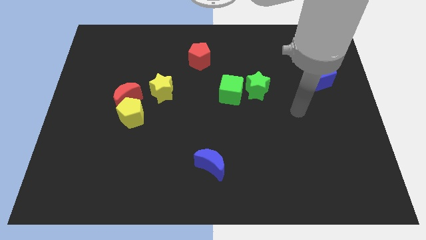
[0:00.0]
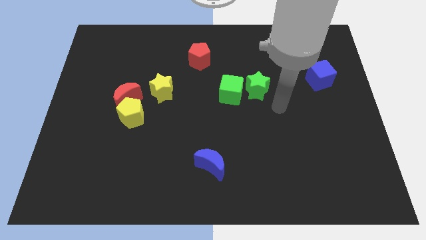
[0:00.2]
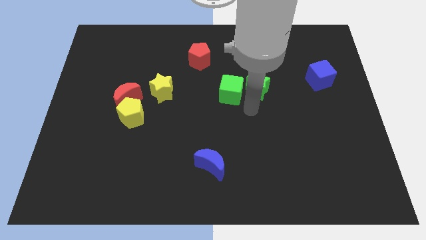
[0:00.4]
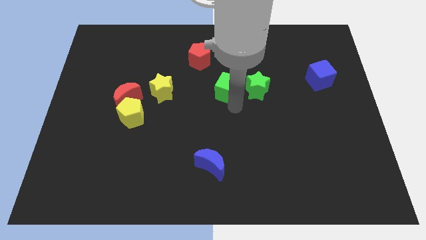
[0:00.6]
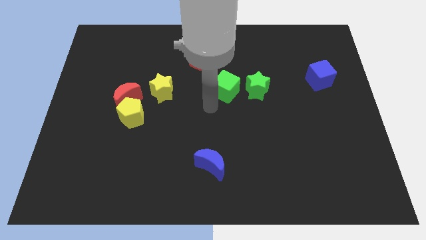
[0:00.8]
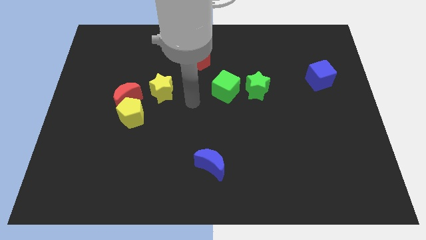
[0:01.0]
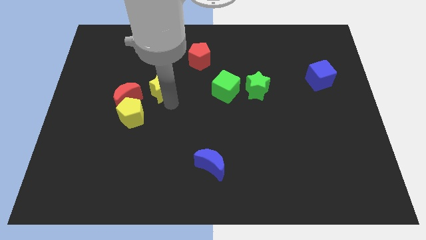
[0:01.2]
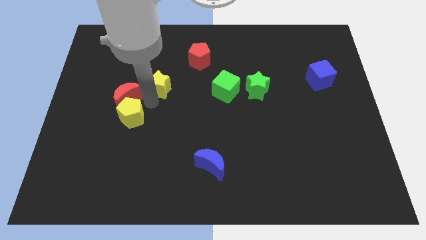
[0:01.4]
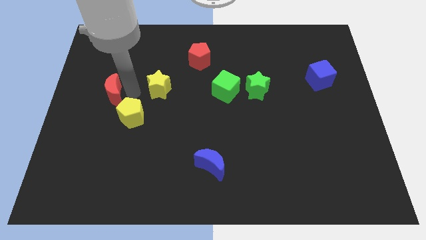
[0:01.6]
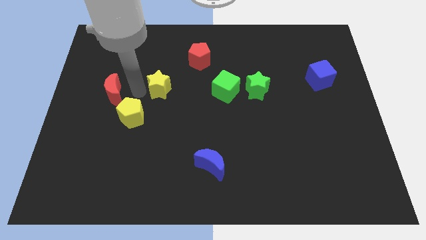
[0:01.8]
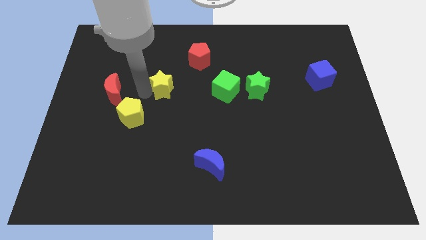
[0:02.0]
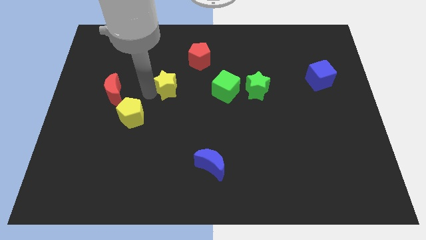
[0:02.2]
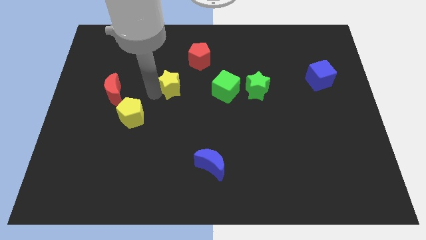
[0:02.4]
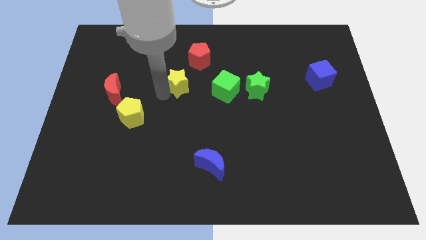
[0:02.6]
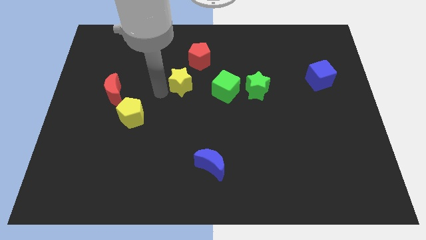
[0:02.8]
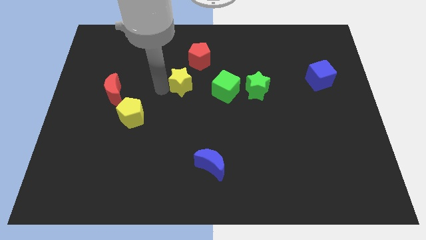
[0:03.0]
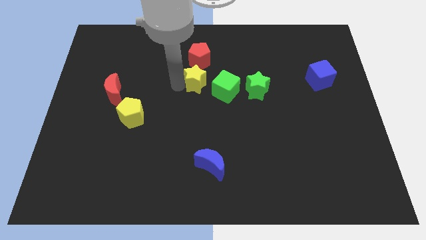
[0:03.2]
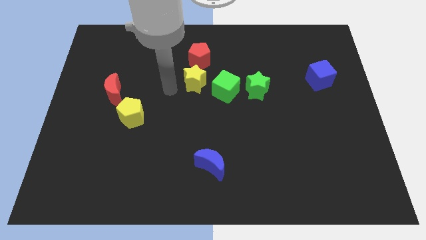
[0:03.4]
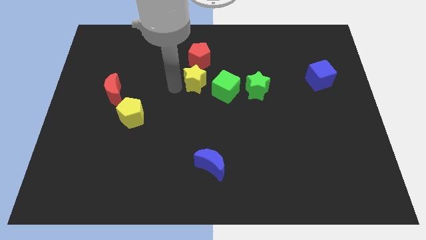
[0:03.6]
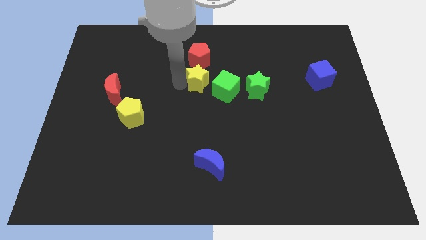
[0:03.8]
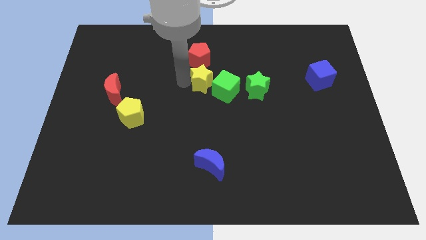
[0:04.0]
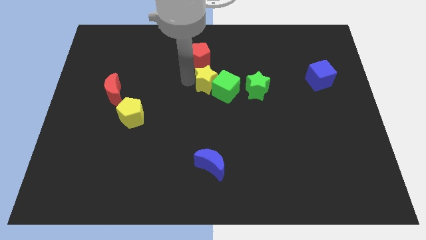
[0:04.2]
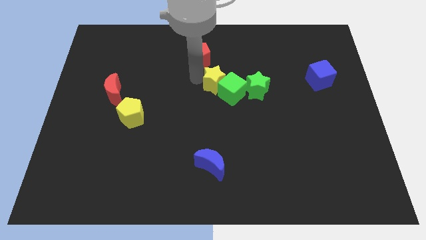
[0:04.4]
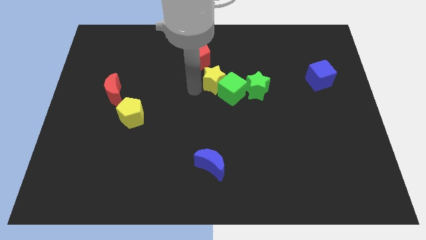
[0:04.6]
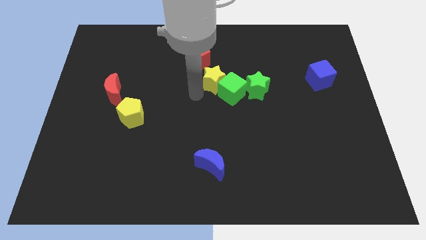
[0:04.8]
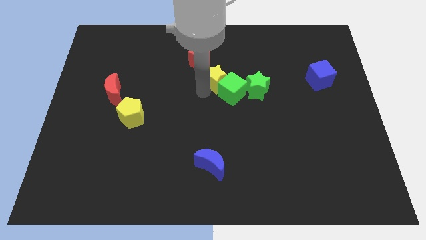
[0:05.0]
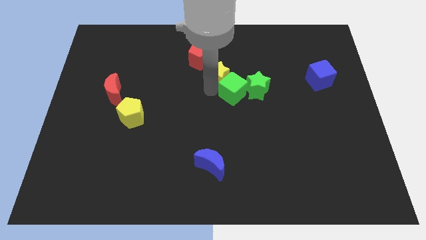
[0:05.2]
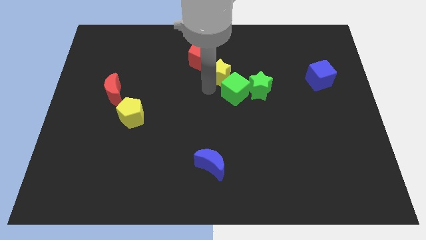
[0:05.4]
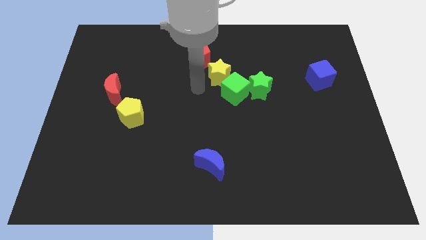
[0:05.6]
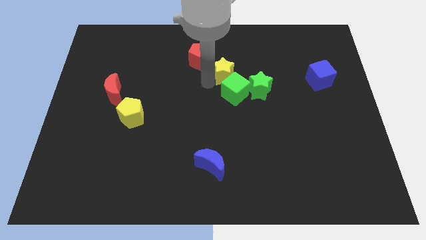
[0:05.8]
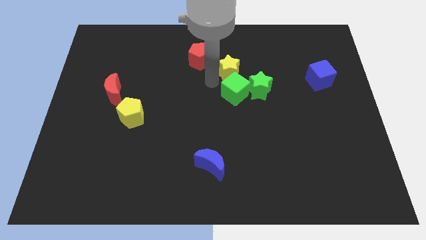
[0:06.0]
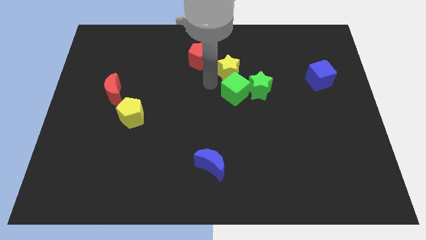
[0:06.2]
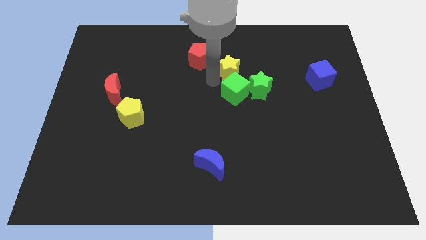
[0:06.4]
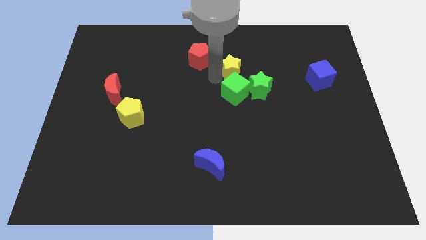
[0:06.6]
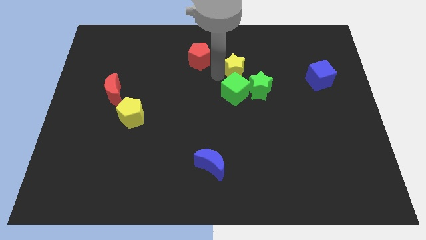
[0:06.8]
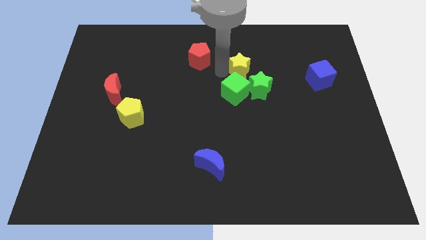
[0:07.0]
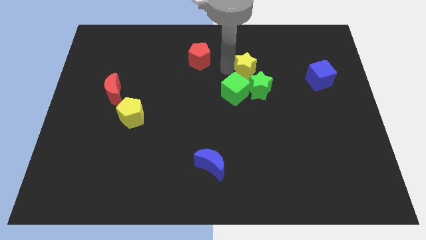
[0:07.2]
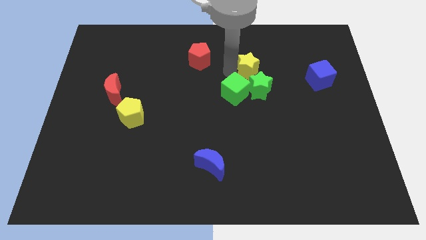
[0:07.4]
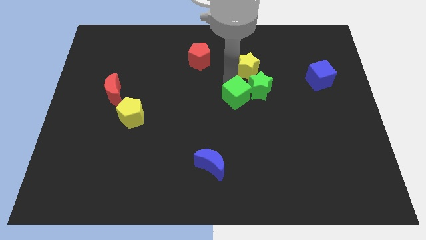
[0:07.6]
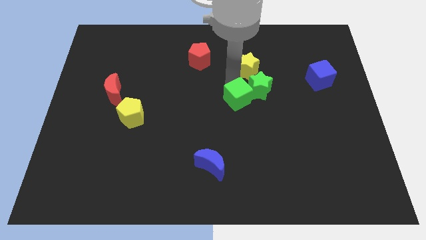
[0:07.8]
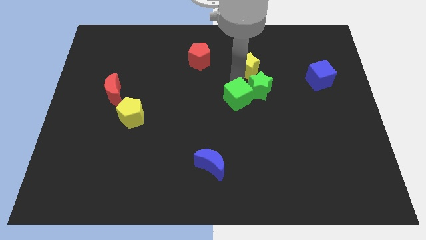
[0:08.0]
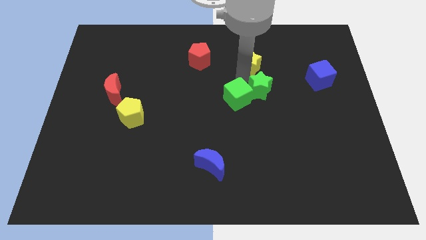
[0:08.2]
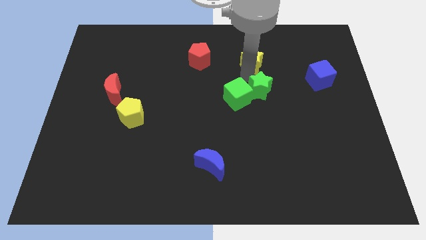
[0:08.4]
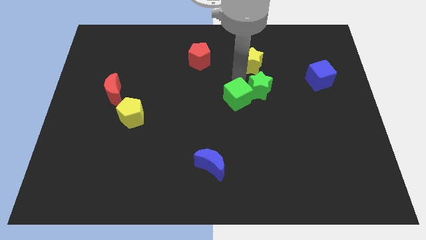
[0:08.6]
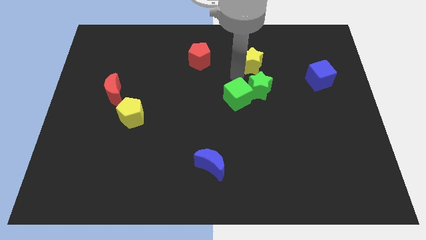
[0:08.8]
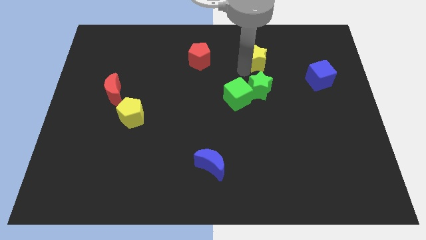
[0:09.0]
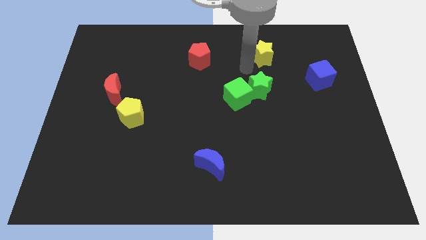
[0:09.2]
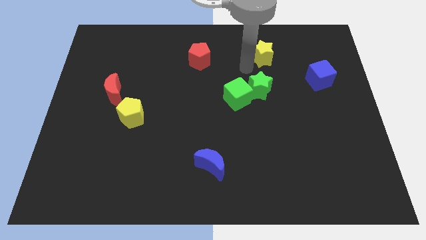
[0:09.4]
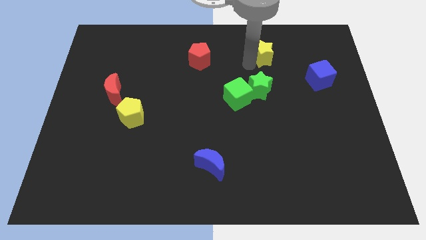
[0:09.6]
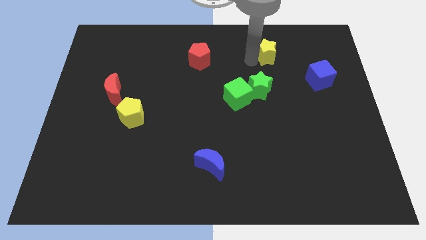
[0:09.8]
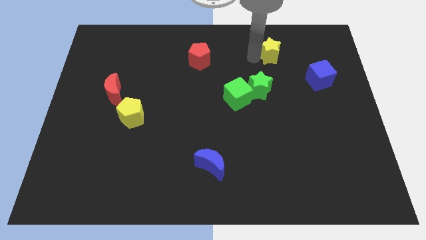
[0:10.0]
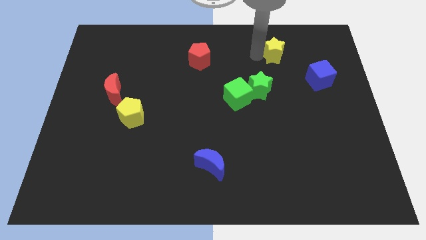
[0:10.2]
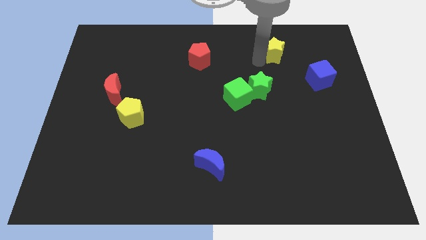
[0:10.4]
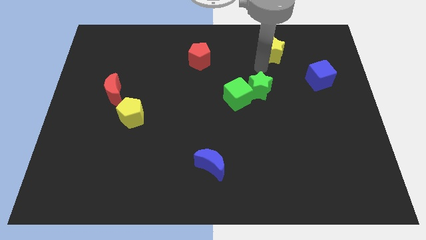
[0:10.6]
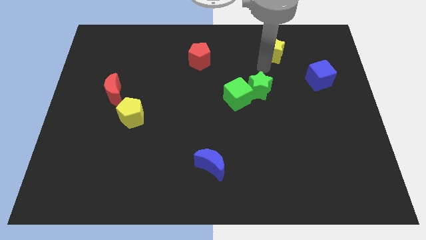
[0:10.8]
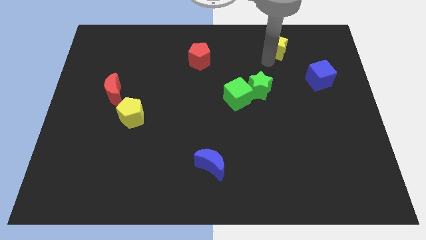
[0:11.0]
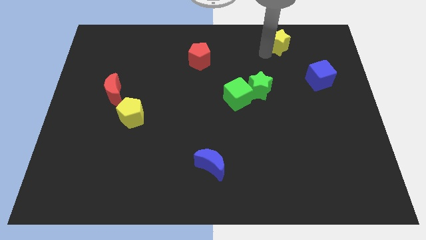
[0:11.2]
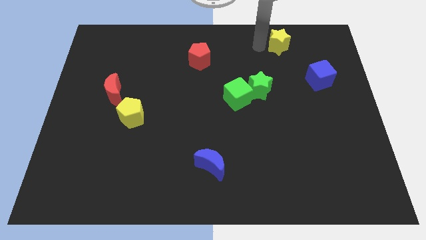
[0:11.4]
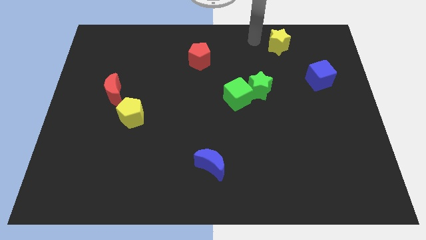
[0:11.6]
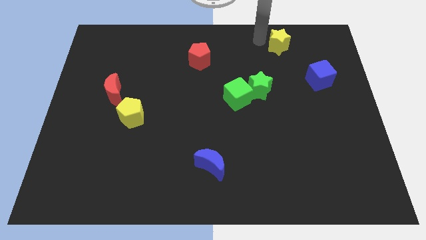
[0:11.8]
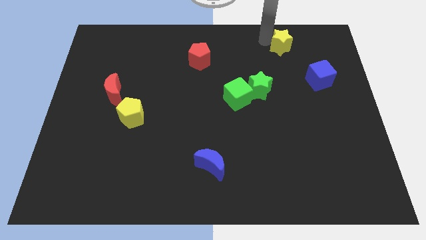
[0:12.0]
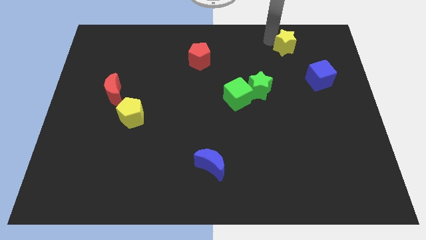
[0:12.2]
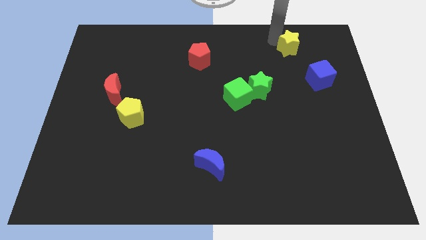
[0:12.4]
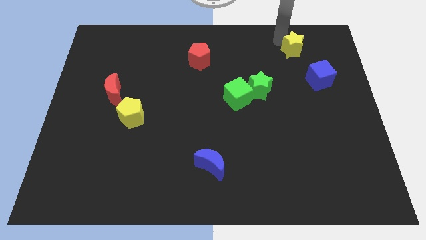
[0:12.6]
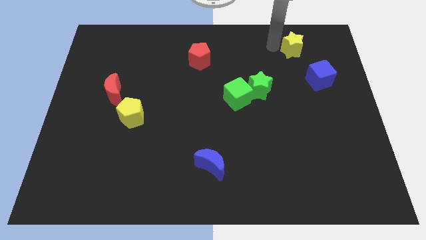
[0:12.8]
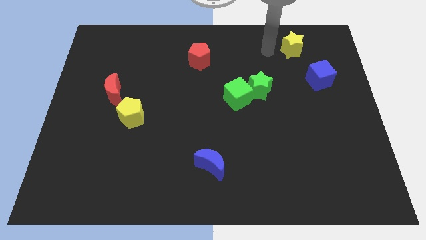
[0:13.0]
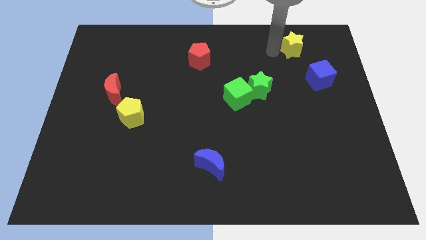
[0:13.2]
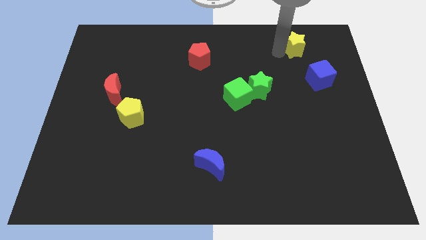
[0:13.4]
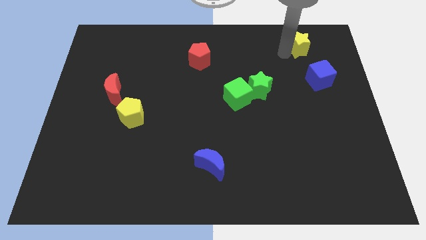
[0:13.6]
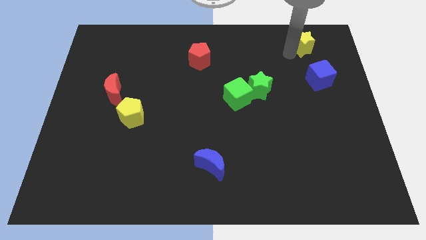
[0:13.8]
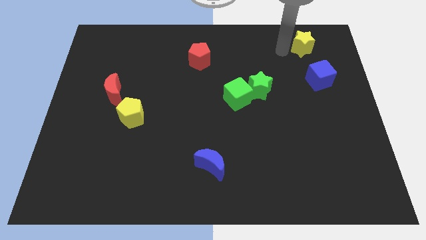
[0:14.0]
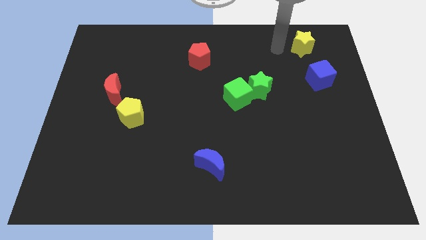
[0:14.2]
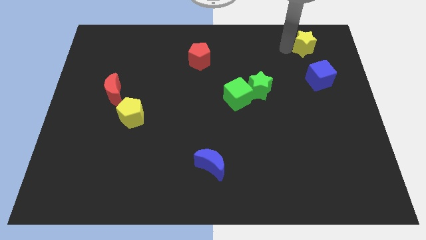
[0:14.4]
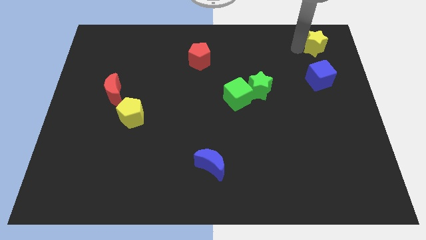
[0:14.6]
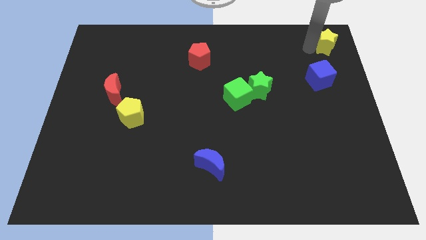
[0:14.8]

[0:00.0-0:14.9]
put the yellow star to the top right corner
